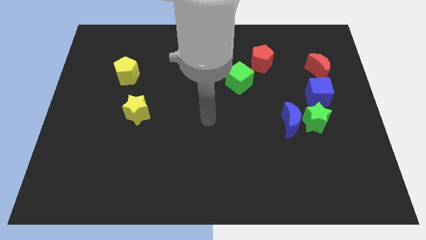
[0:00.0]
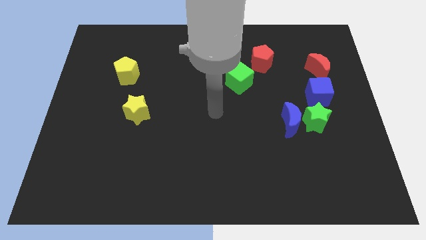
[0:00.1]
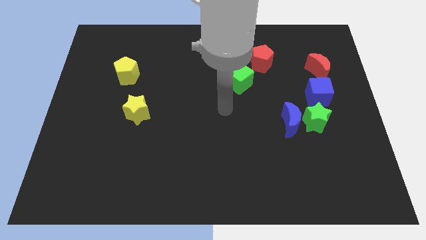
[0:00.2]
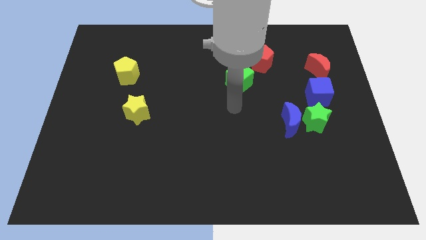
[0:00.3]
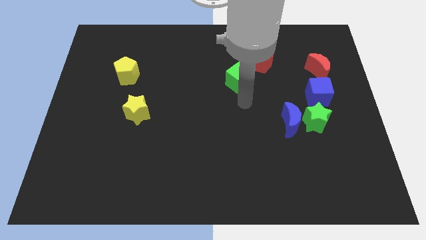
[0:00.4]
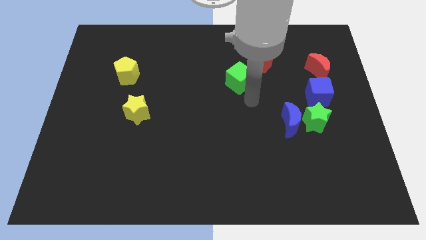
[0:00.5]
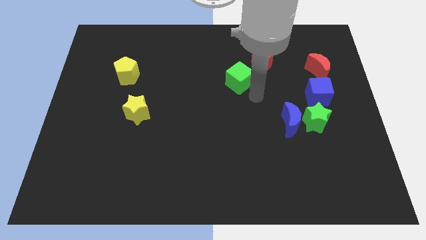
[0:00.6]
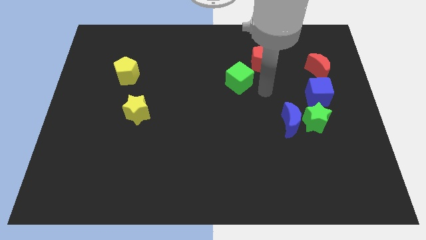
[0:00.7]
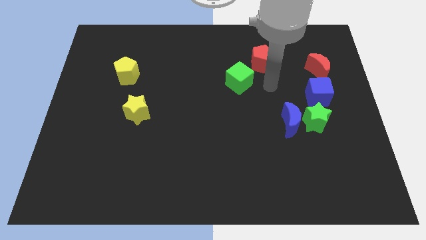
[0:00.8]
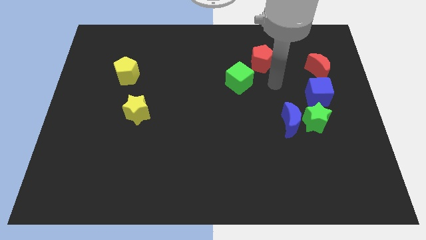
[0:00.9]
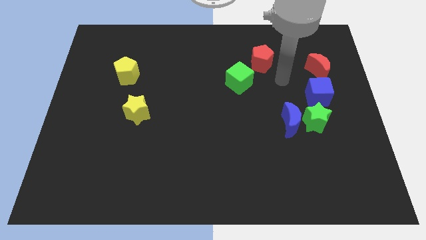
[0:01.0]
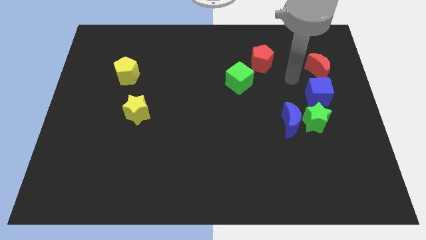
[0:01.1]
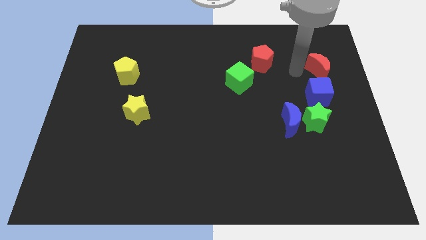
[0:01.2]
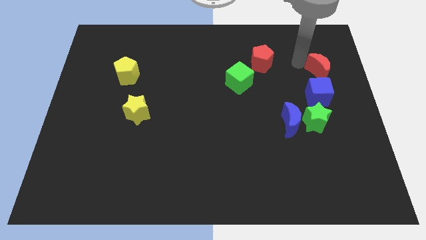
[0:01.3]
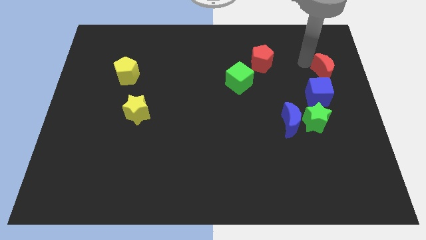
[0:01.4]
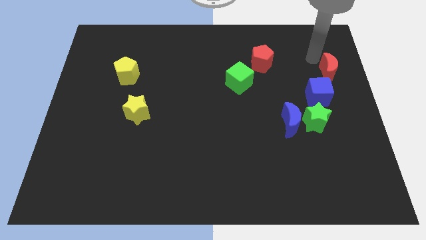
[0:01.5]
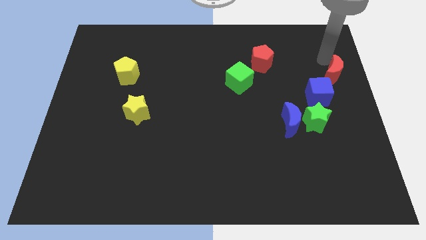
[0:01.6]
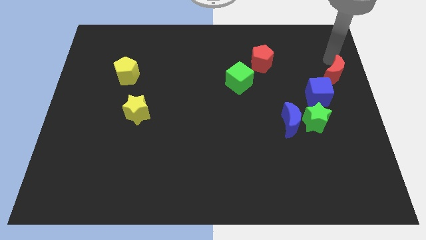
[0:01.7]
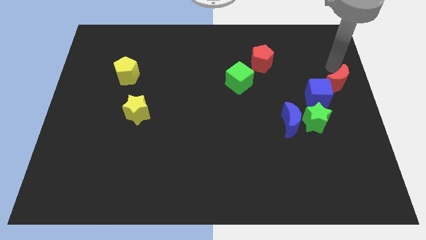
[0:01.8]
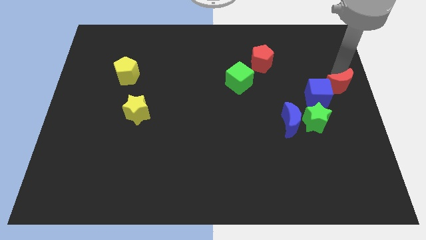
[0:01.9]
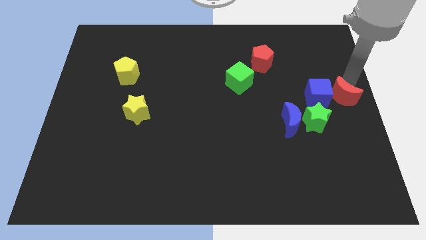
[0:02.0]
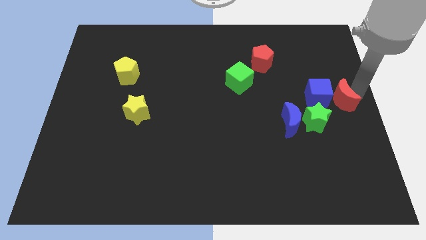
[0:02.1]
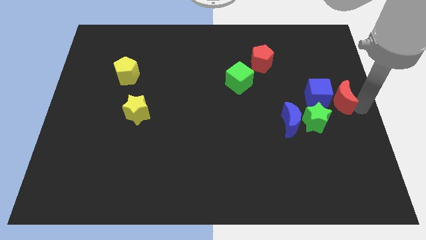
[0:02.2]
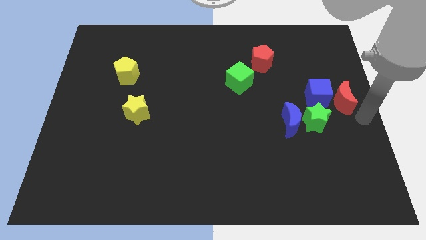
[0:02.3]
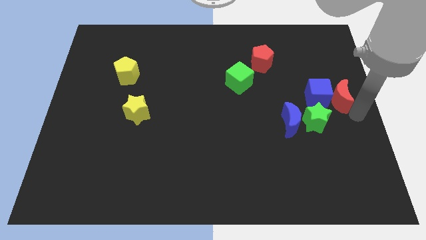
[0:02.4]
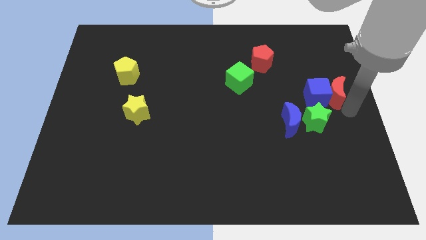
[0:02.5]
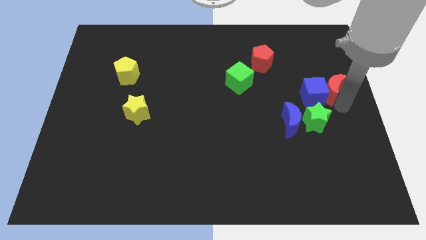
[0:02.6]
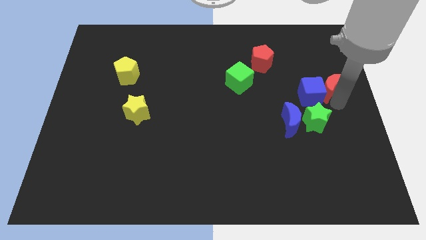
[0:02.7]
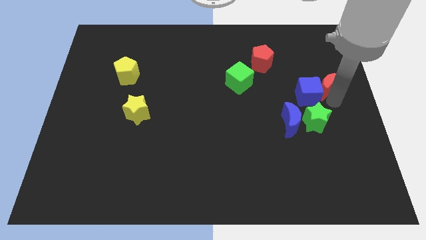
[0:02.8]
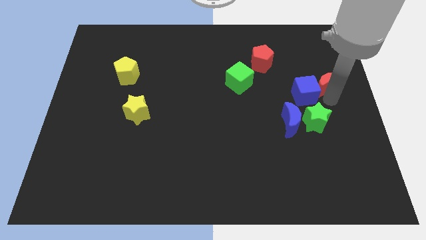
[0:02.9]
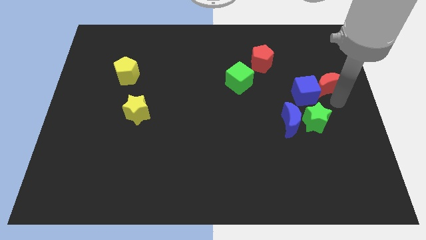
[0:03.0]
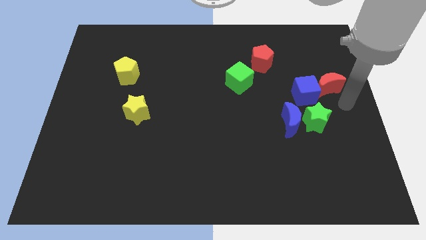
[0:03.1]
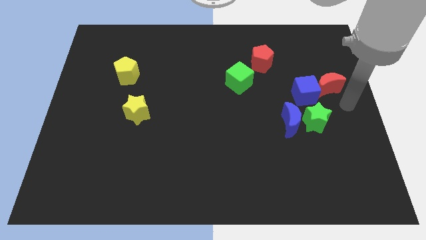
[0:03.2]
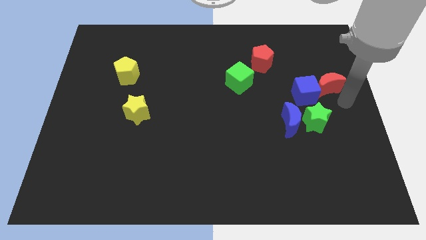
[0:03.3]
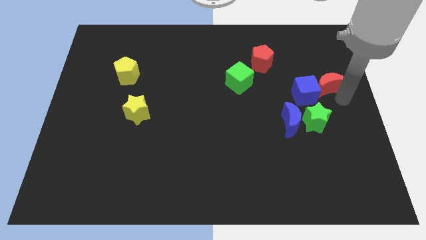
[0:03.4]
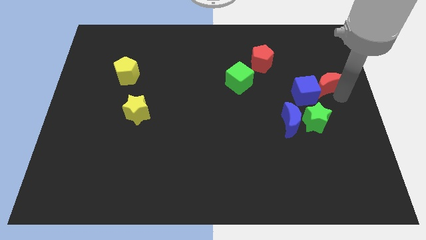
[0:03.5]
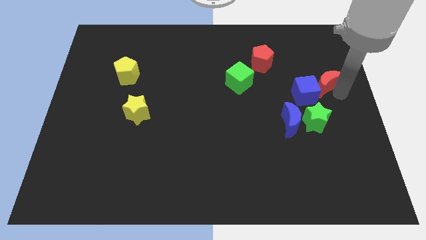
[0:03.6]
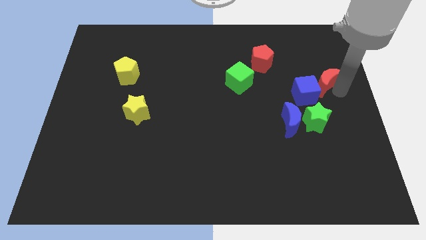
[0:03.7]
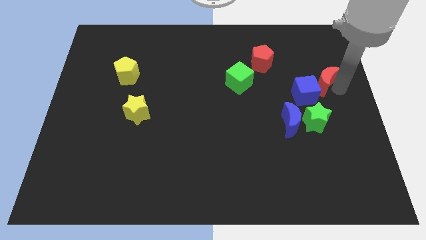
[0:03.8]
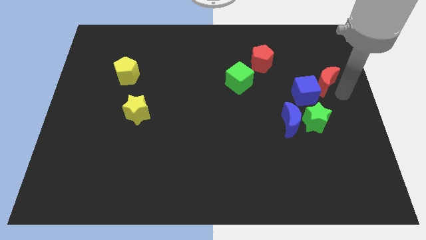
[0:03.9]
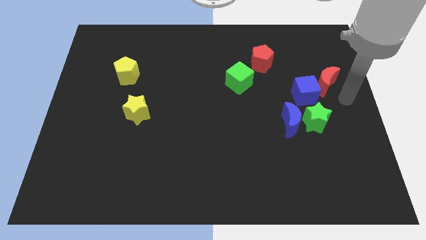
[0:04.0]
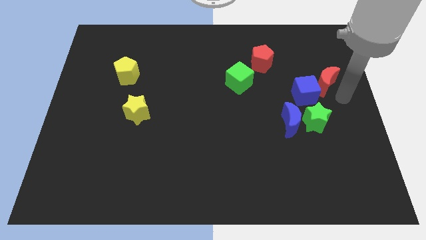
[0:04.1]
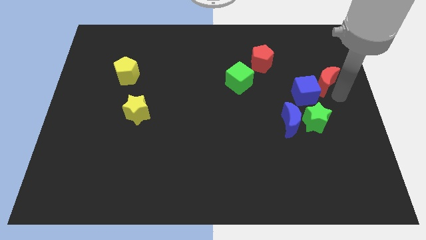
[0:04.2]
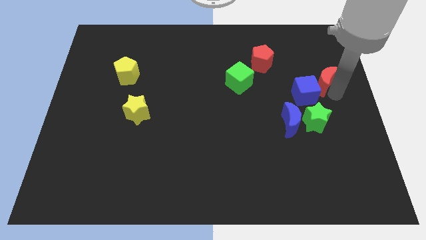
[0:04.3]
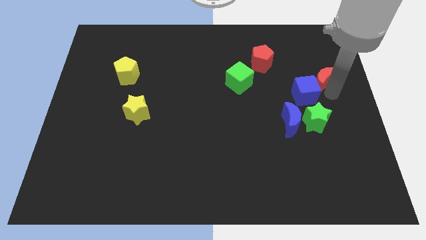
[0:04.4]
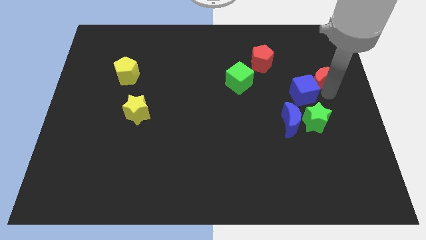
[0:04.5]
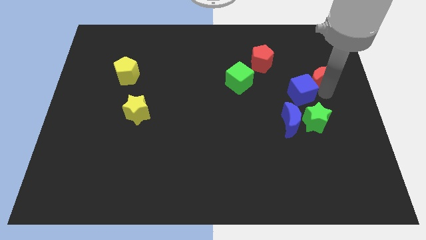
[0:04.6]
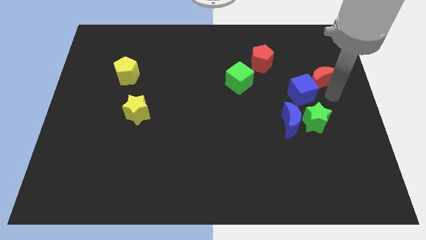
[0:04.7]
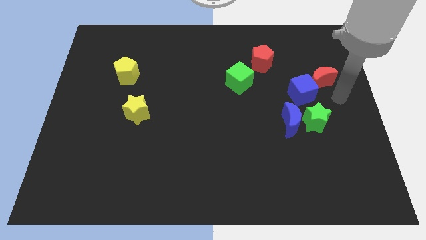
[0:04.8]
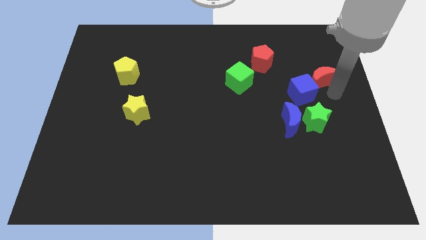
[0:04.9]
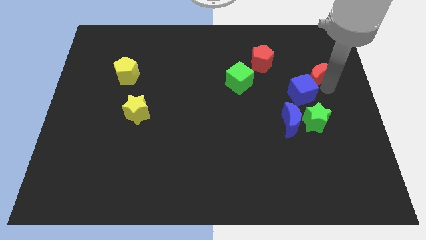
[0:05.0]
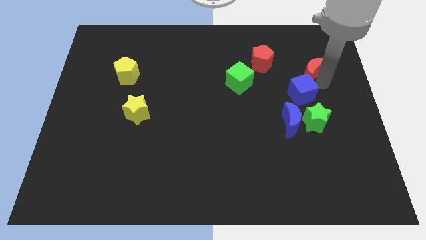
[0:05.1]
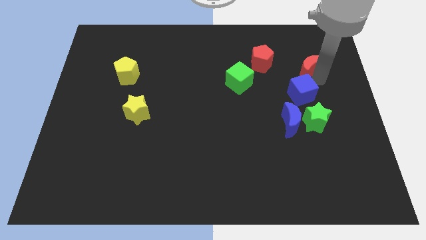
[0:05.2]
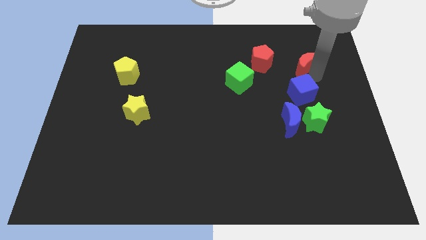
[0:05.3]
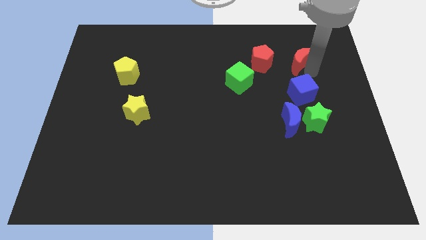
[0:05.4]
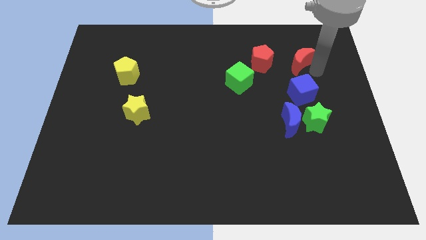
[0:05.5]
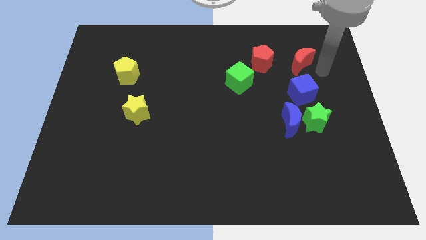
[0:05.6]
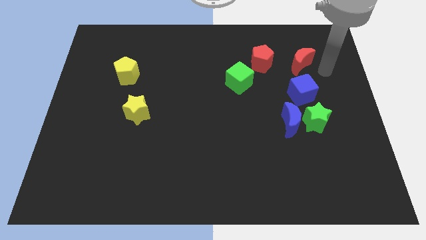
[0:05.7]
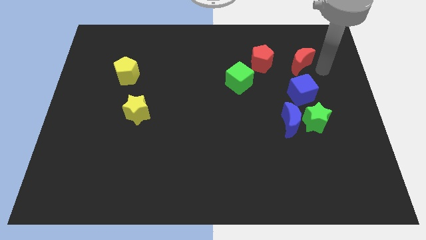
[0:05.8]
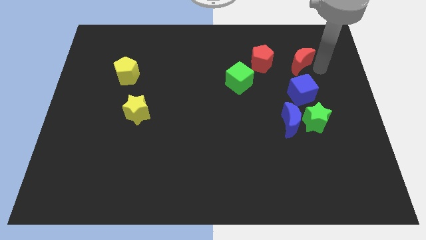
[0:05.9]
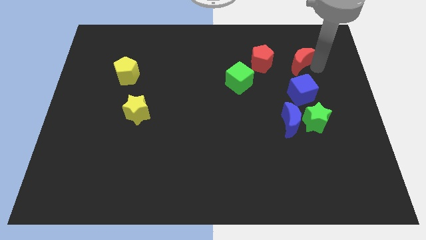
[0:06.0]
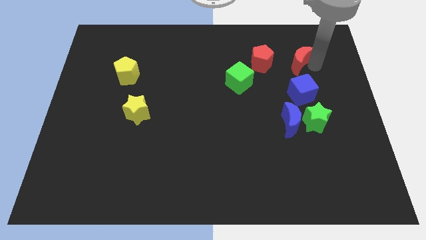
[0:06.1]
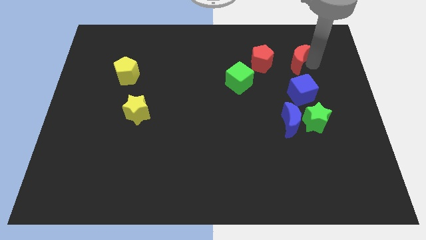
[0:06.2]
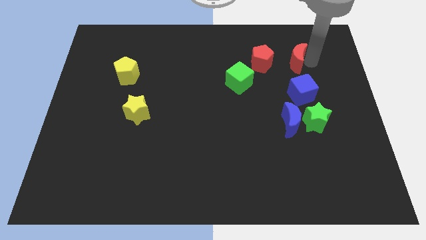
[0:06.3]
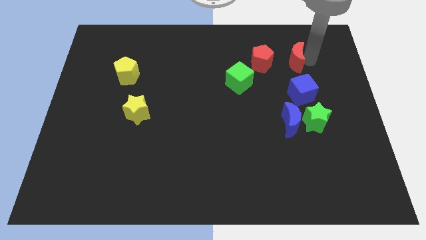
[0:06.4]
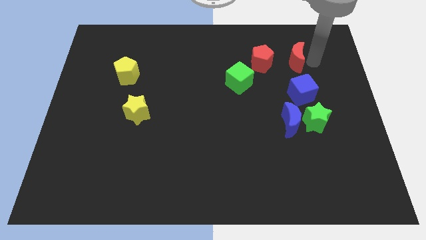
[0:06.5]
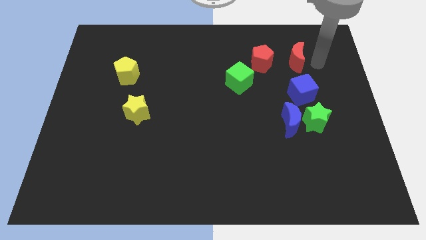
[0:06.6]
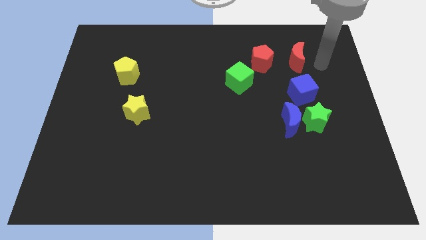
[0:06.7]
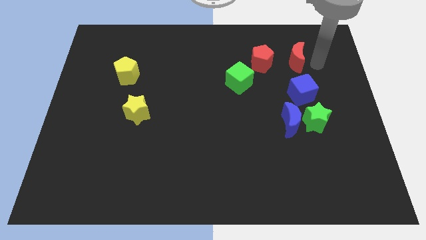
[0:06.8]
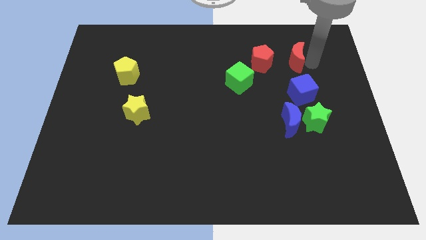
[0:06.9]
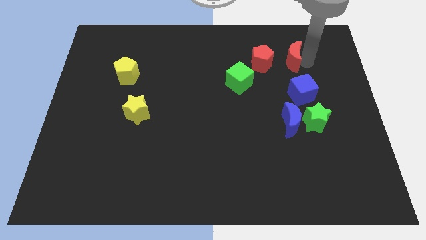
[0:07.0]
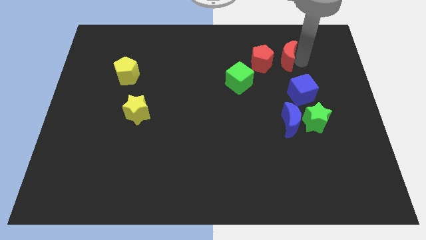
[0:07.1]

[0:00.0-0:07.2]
slide the red moon a little bit to the left

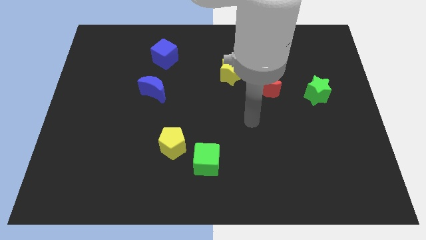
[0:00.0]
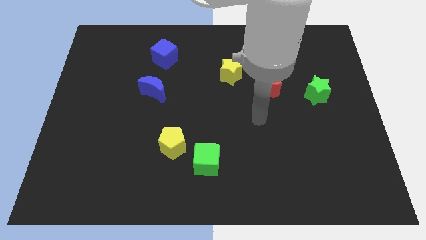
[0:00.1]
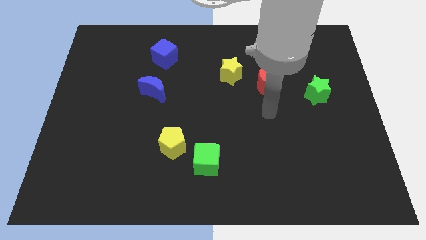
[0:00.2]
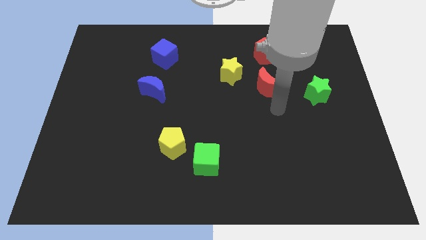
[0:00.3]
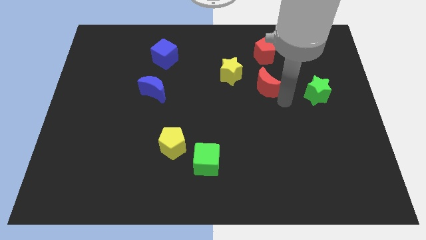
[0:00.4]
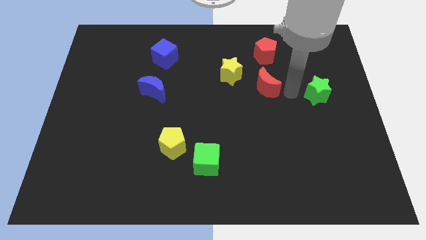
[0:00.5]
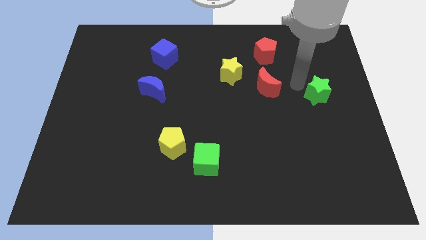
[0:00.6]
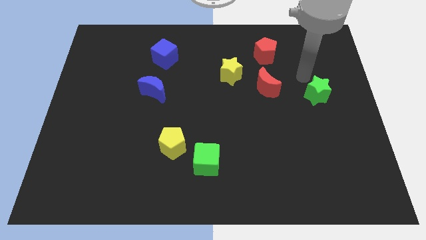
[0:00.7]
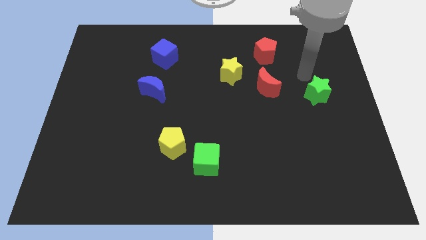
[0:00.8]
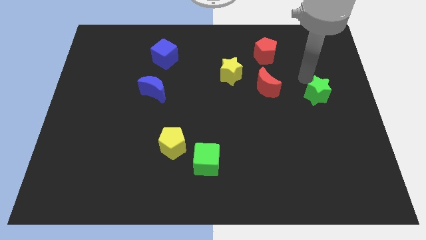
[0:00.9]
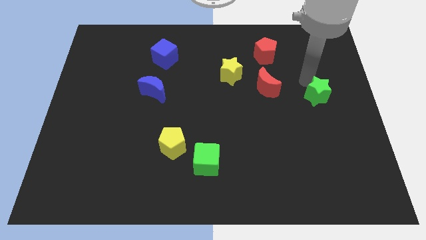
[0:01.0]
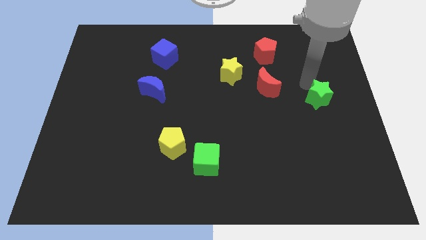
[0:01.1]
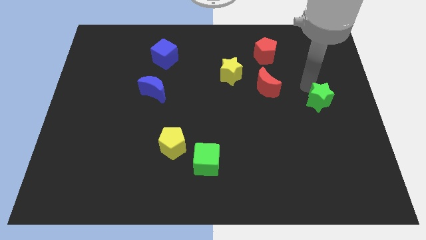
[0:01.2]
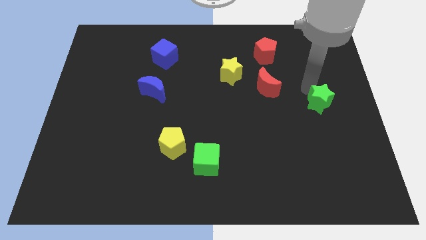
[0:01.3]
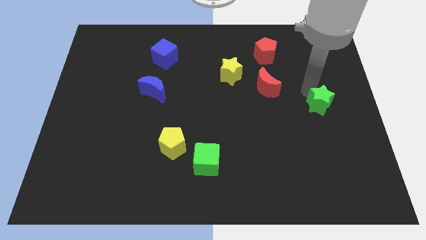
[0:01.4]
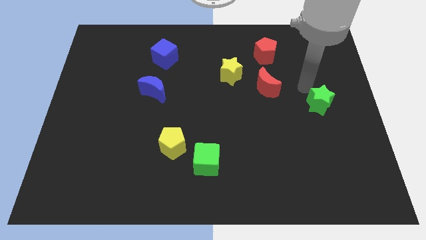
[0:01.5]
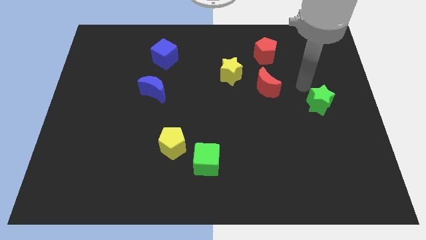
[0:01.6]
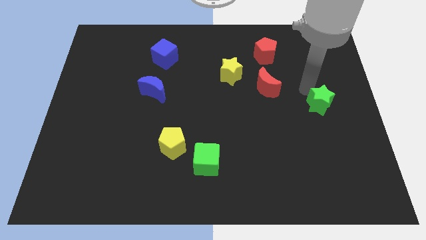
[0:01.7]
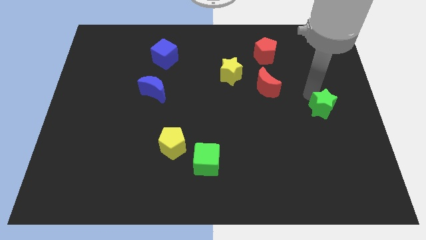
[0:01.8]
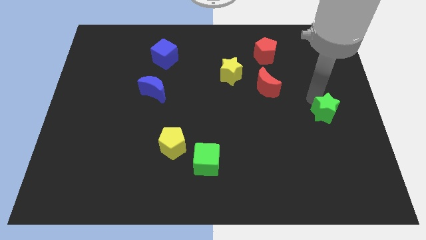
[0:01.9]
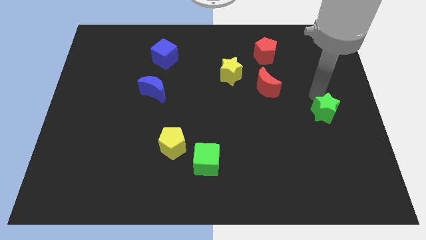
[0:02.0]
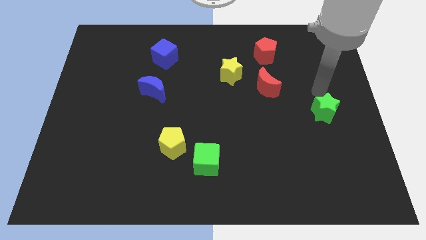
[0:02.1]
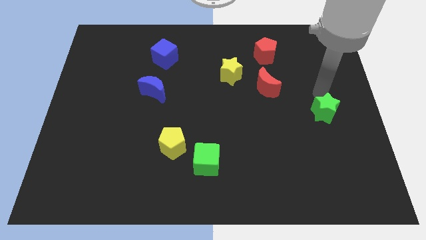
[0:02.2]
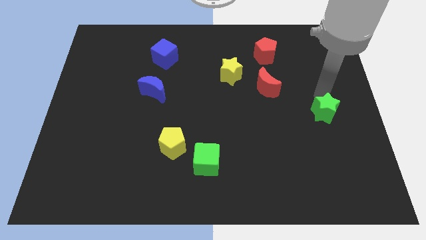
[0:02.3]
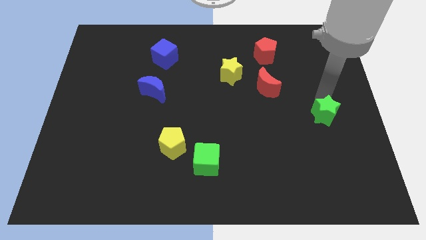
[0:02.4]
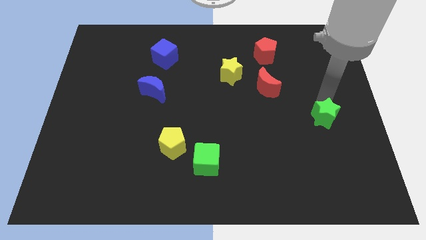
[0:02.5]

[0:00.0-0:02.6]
push the green star a bit down
